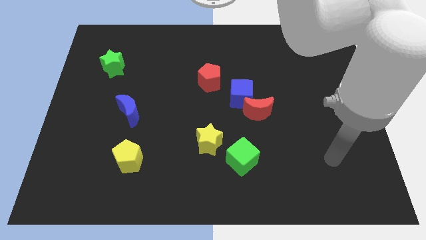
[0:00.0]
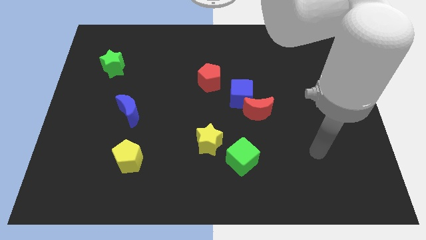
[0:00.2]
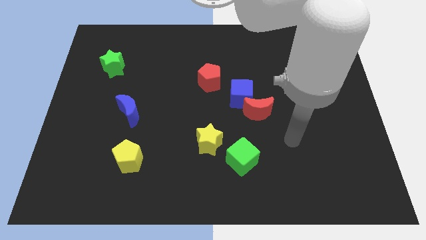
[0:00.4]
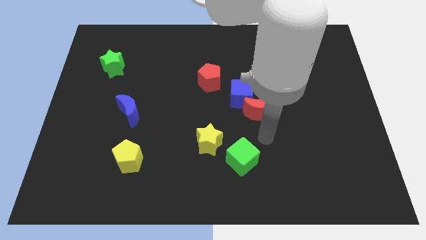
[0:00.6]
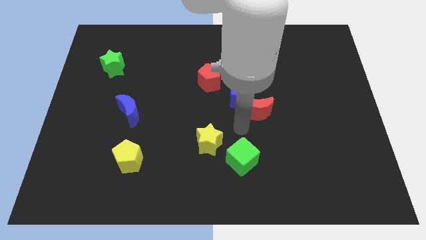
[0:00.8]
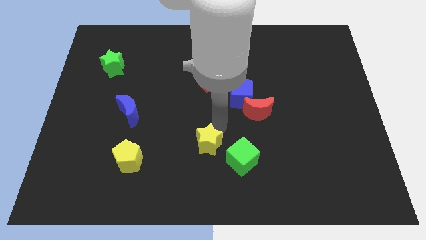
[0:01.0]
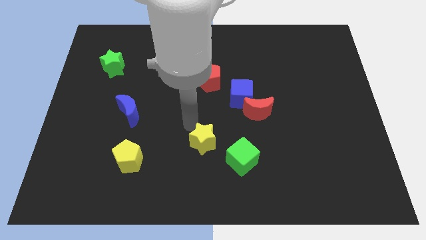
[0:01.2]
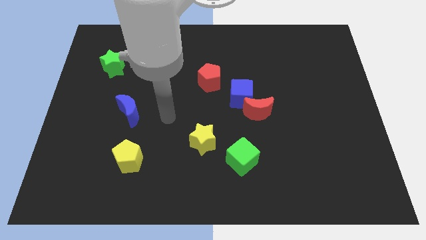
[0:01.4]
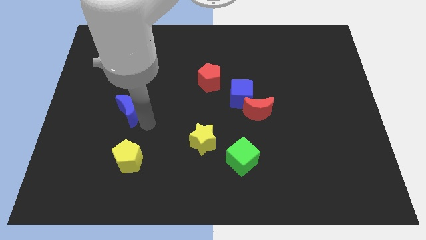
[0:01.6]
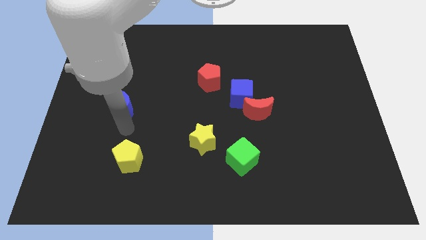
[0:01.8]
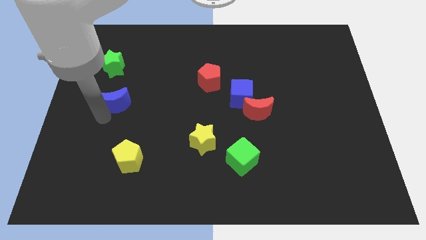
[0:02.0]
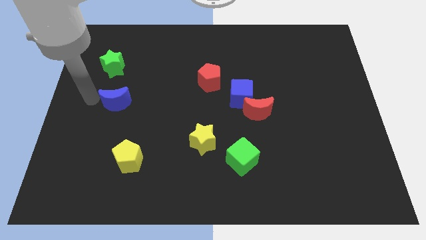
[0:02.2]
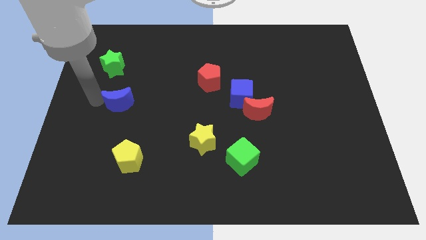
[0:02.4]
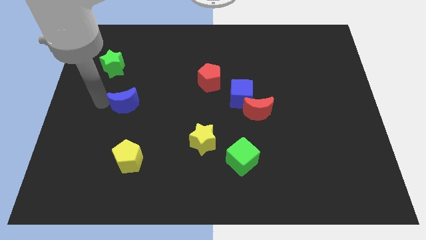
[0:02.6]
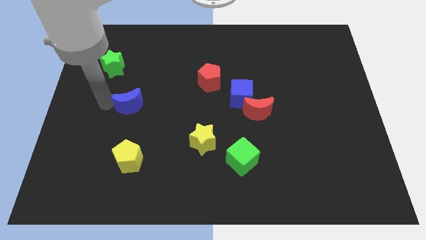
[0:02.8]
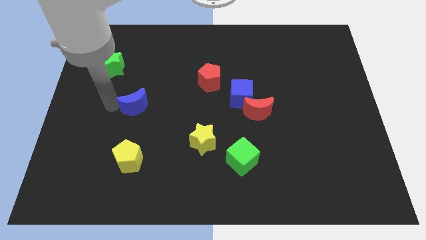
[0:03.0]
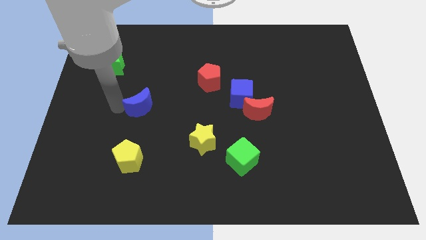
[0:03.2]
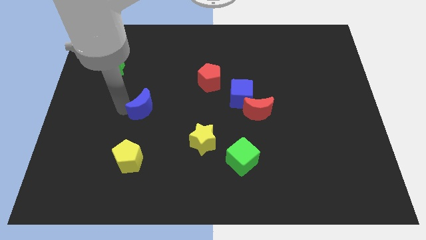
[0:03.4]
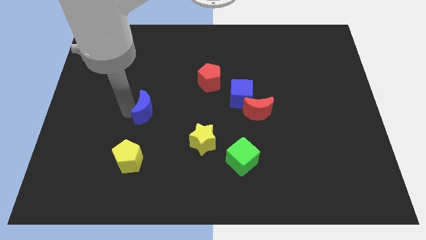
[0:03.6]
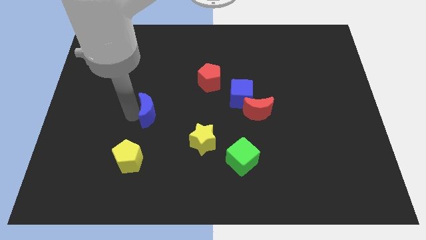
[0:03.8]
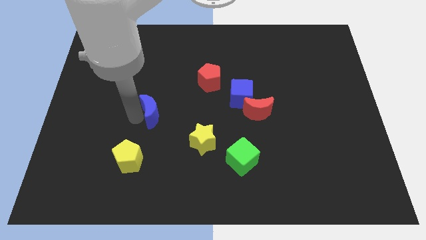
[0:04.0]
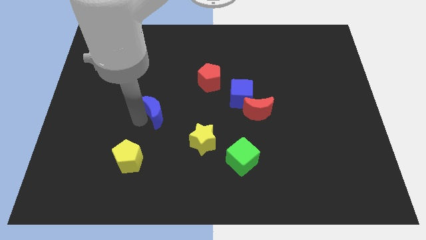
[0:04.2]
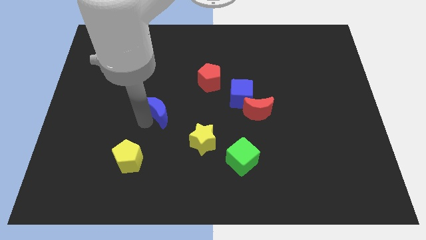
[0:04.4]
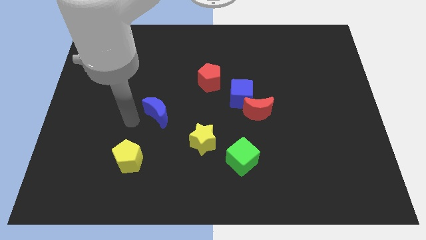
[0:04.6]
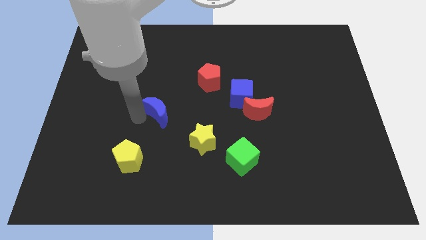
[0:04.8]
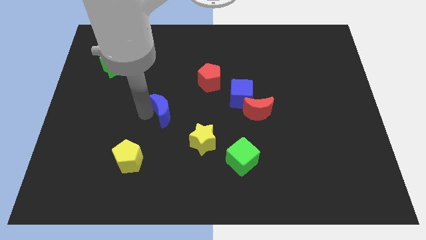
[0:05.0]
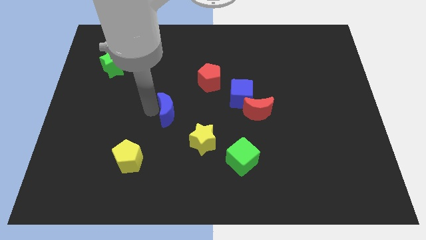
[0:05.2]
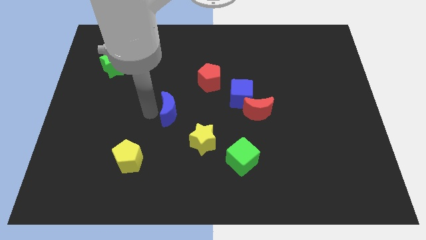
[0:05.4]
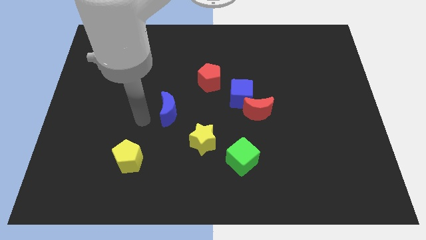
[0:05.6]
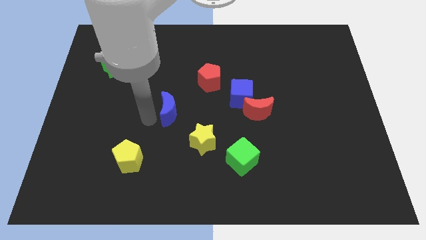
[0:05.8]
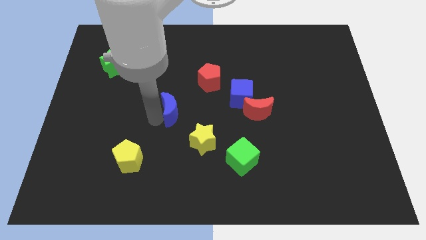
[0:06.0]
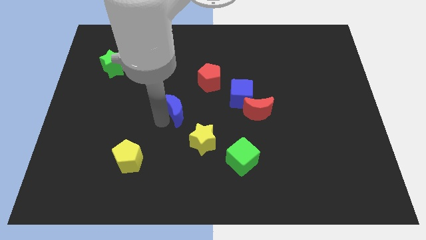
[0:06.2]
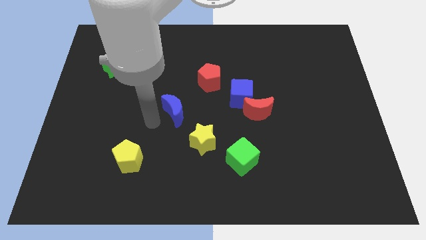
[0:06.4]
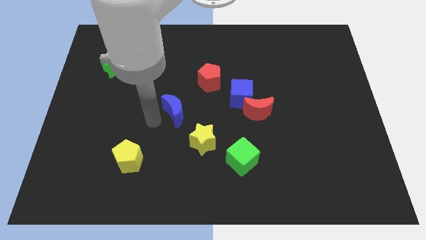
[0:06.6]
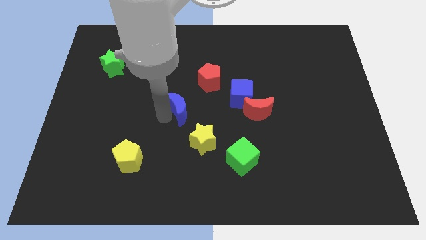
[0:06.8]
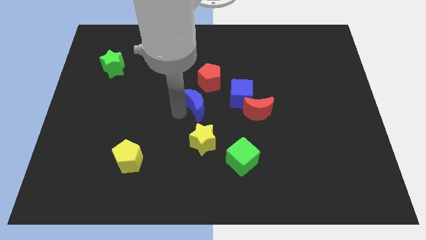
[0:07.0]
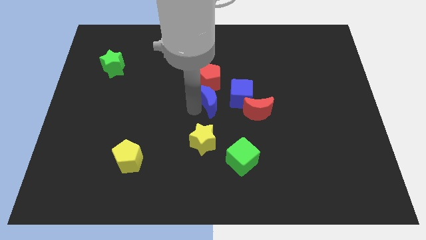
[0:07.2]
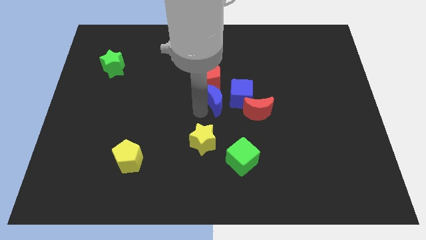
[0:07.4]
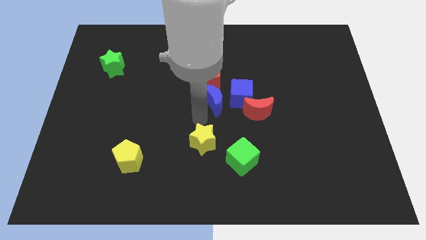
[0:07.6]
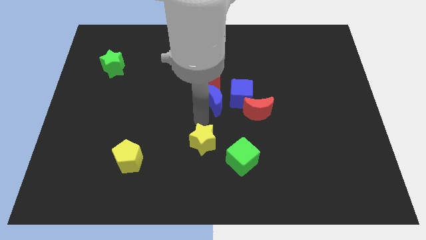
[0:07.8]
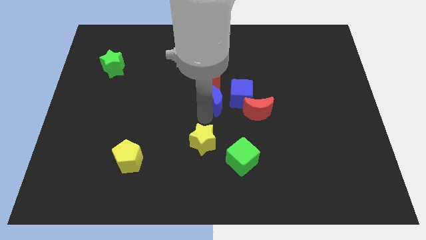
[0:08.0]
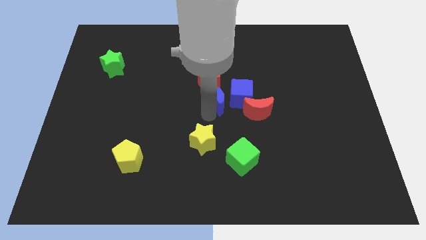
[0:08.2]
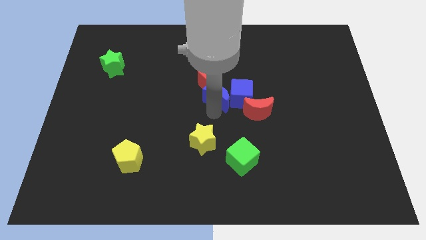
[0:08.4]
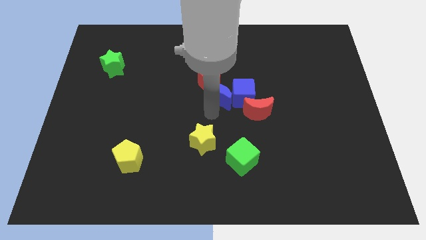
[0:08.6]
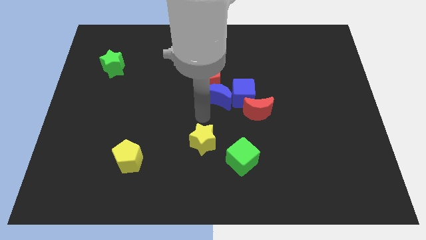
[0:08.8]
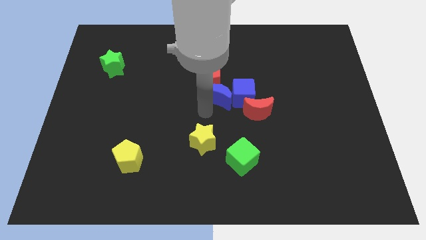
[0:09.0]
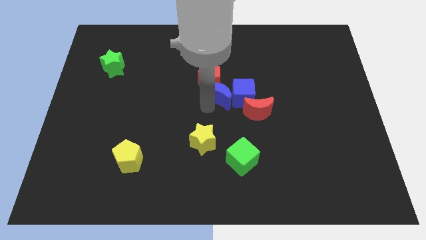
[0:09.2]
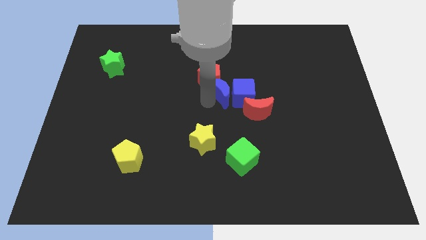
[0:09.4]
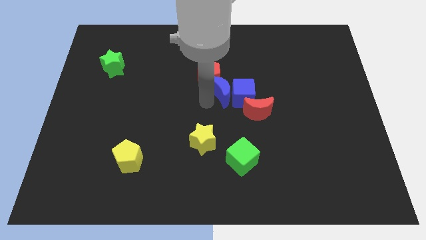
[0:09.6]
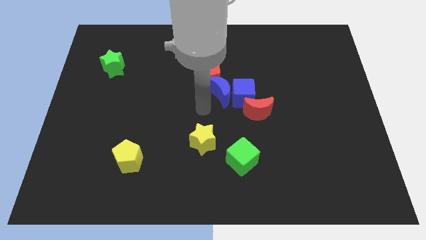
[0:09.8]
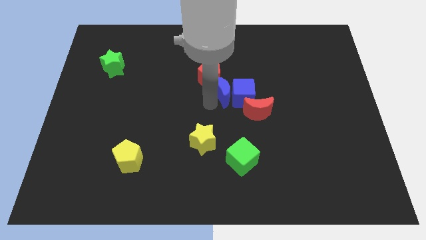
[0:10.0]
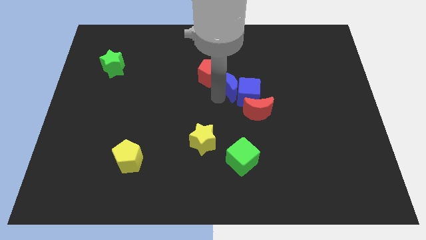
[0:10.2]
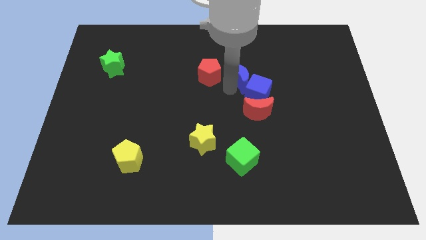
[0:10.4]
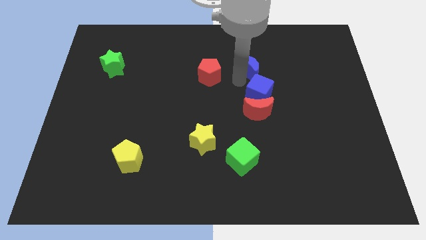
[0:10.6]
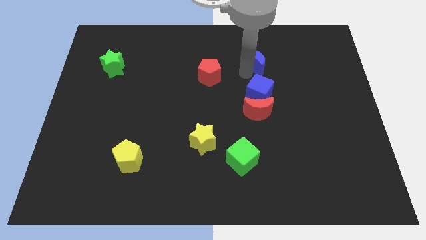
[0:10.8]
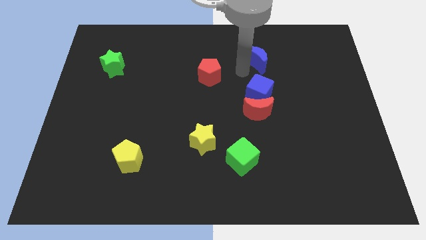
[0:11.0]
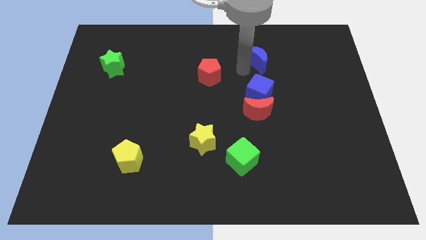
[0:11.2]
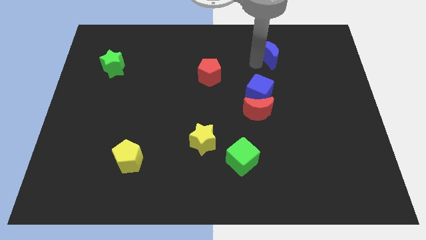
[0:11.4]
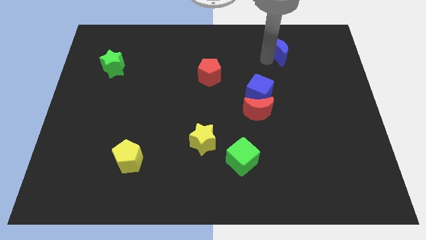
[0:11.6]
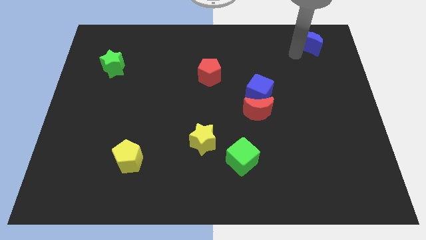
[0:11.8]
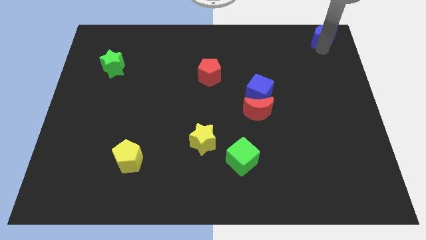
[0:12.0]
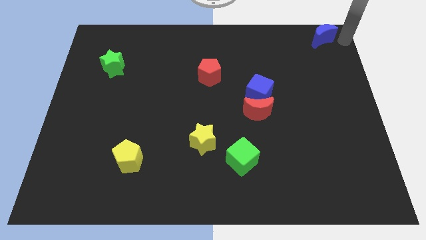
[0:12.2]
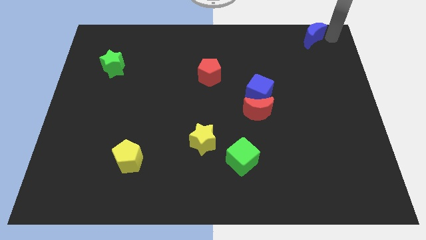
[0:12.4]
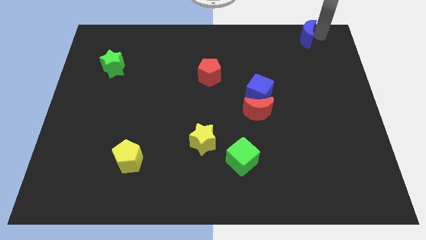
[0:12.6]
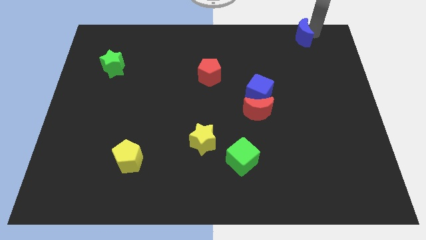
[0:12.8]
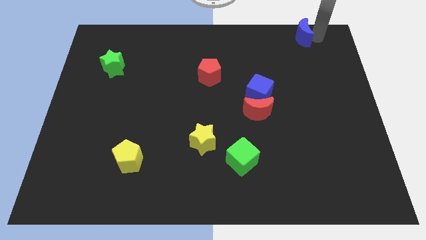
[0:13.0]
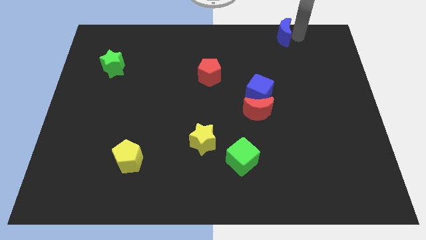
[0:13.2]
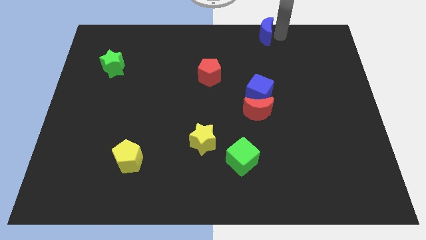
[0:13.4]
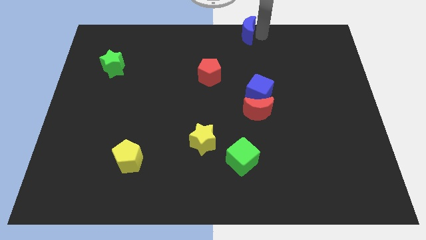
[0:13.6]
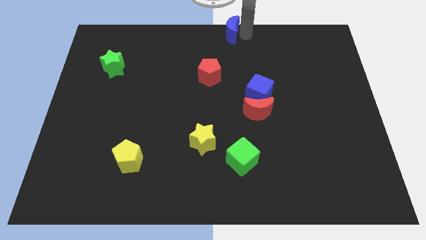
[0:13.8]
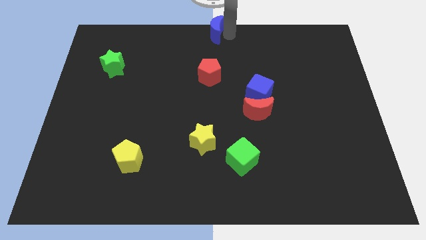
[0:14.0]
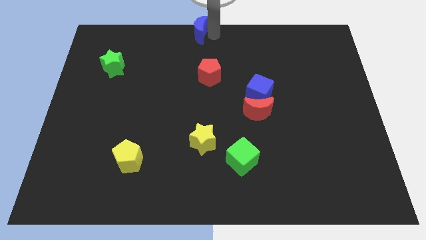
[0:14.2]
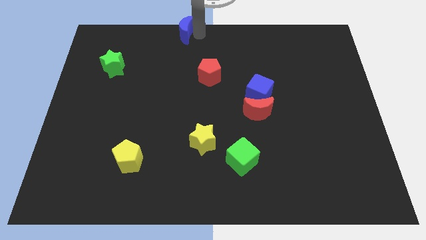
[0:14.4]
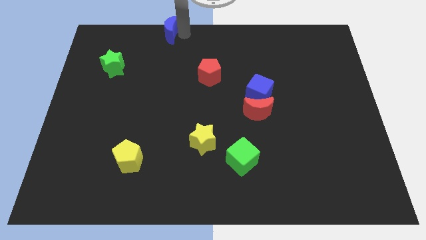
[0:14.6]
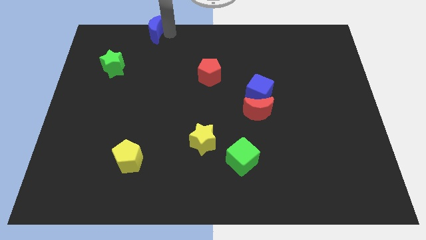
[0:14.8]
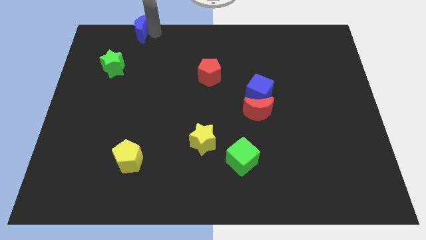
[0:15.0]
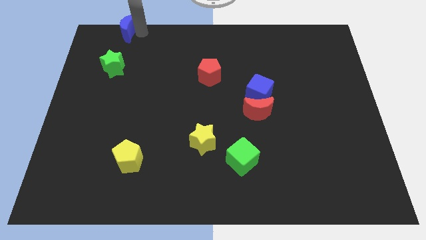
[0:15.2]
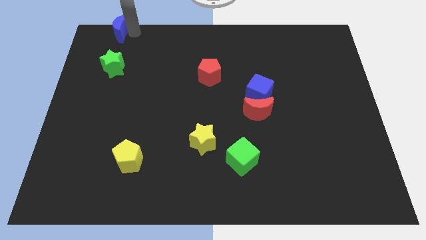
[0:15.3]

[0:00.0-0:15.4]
slide the blue moon to the upper left corner
